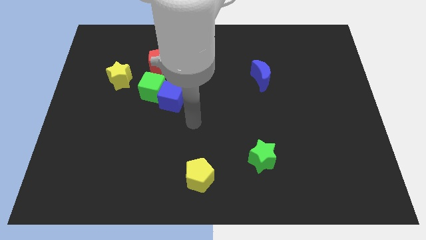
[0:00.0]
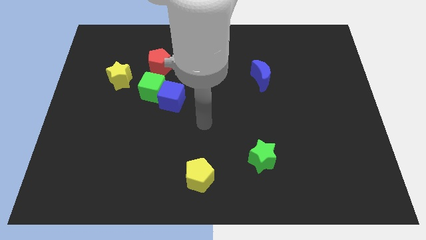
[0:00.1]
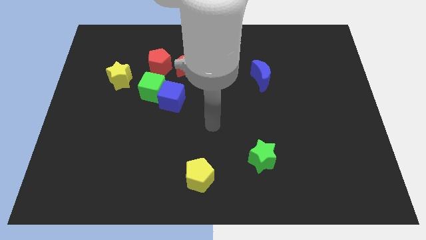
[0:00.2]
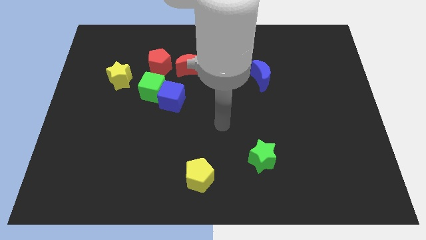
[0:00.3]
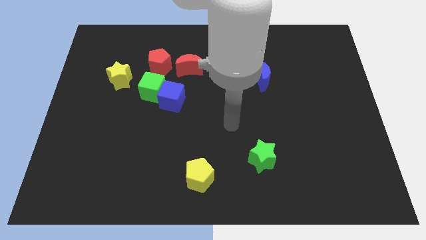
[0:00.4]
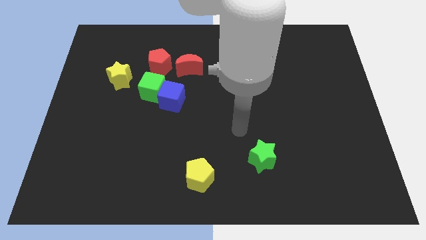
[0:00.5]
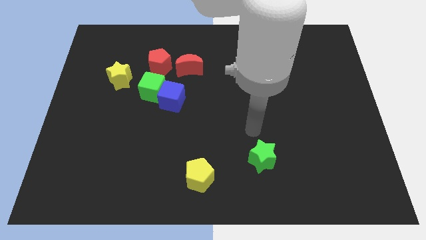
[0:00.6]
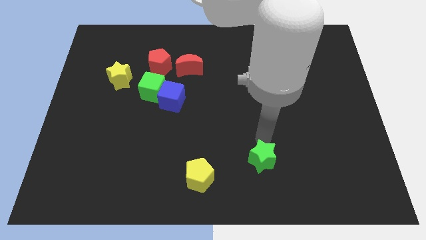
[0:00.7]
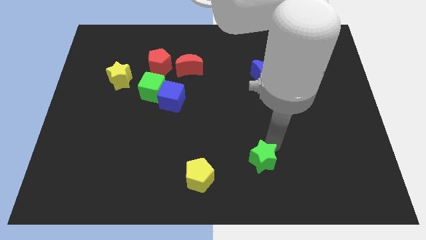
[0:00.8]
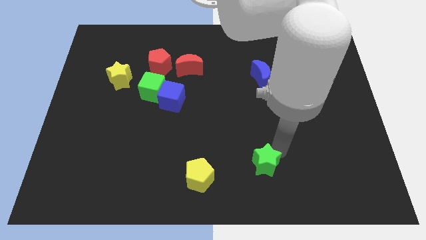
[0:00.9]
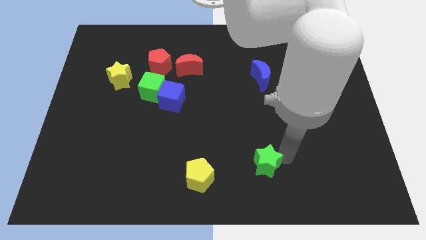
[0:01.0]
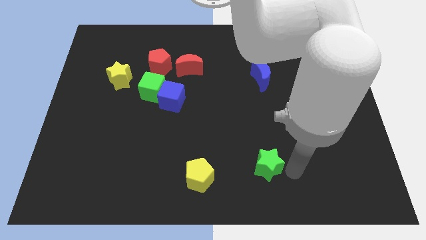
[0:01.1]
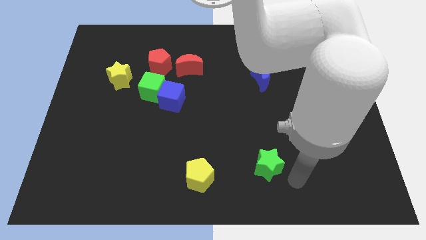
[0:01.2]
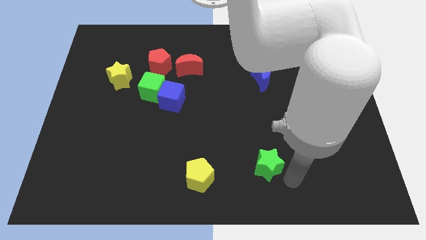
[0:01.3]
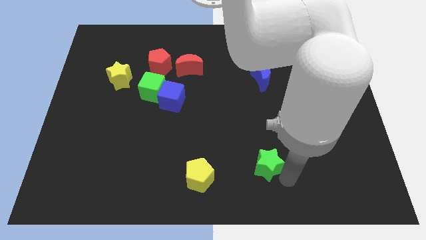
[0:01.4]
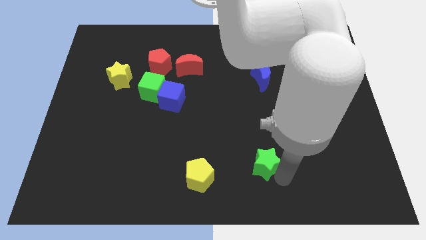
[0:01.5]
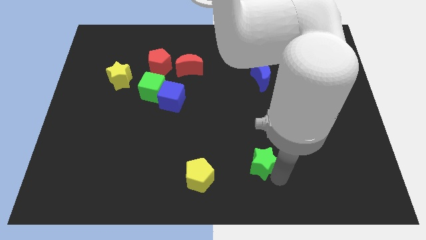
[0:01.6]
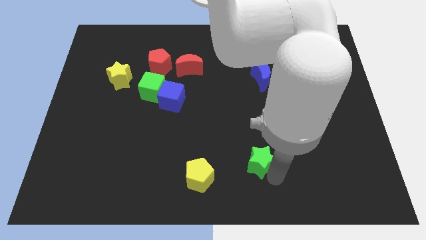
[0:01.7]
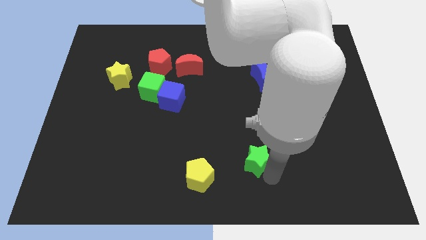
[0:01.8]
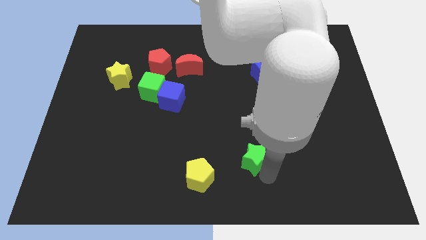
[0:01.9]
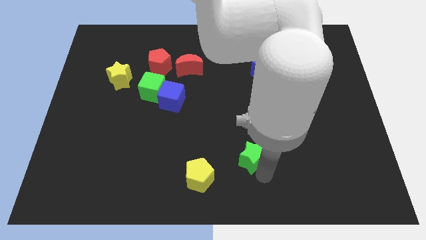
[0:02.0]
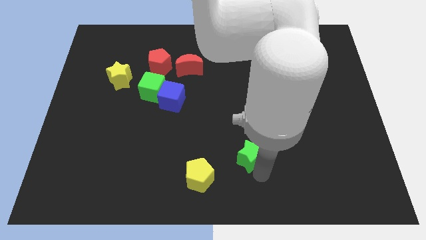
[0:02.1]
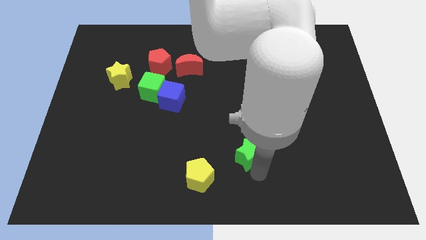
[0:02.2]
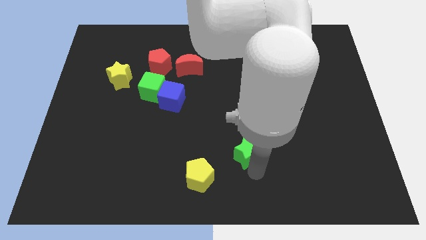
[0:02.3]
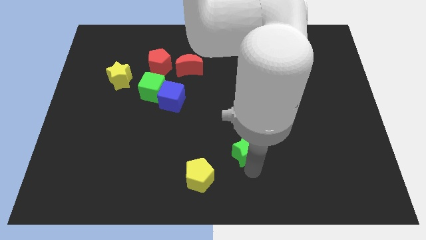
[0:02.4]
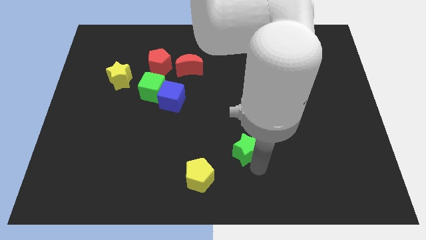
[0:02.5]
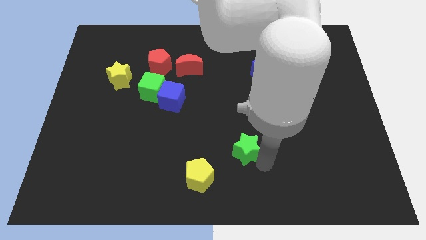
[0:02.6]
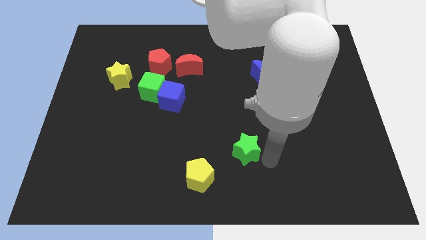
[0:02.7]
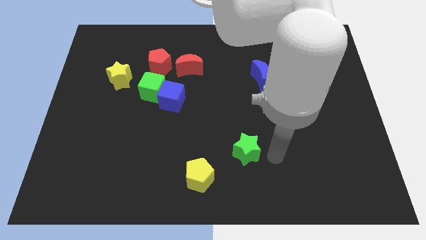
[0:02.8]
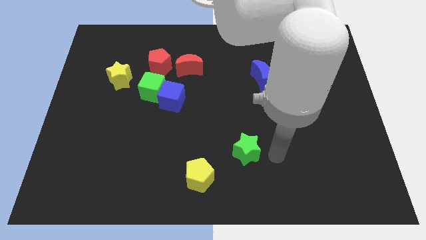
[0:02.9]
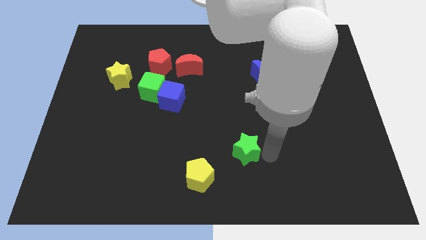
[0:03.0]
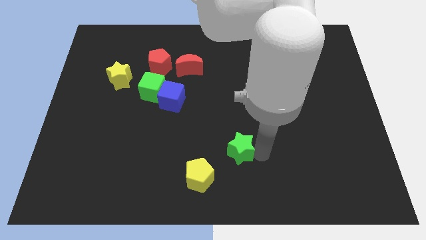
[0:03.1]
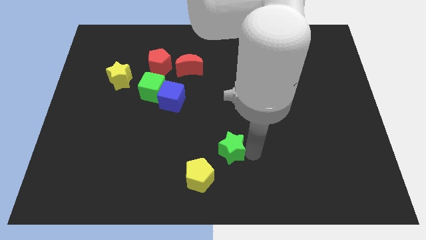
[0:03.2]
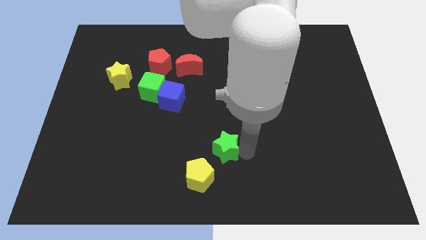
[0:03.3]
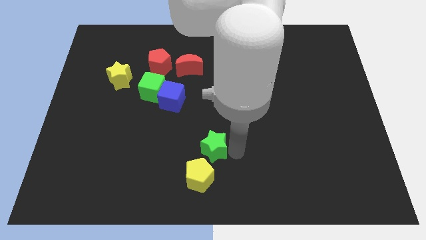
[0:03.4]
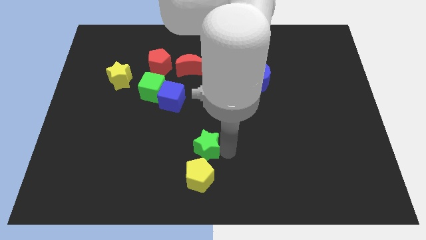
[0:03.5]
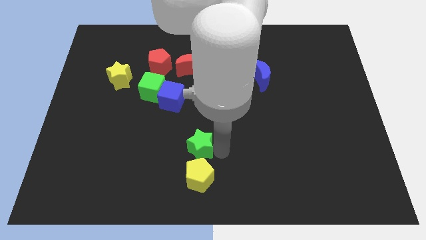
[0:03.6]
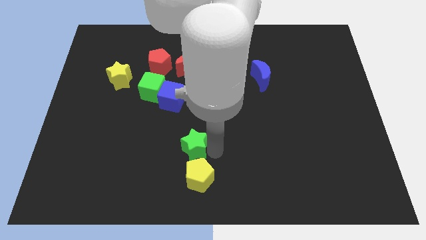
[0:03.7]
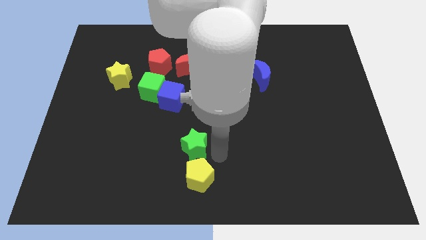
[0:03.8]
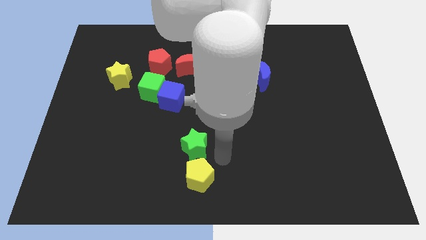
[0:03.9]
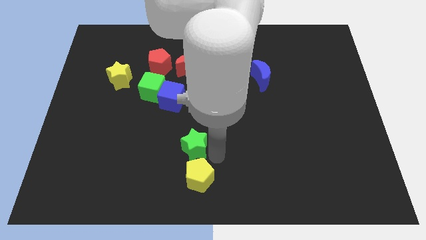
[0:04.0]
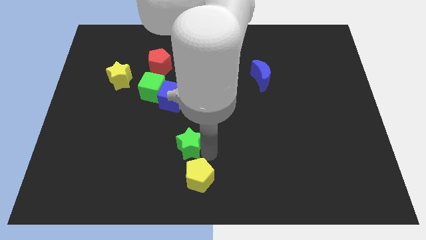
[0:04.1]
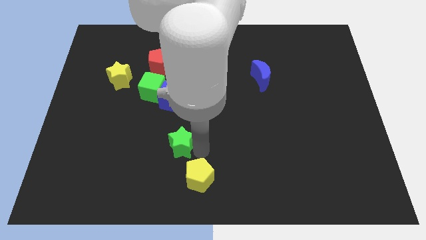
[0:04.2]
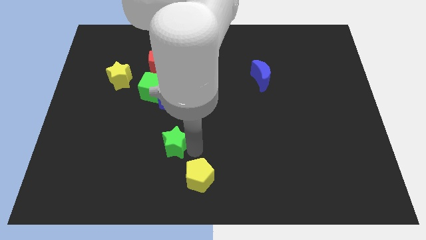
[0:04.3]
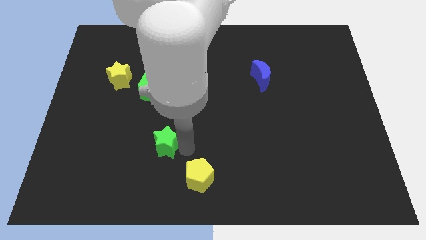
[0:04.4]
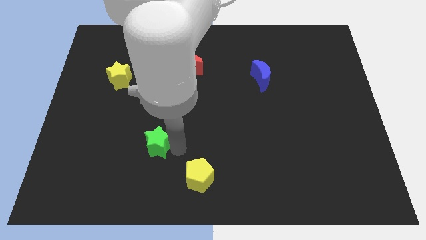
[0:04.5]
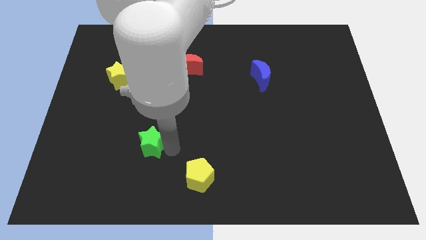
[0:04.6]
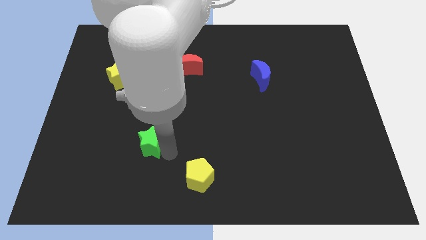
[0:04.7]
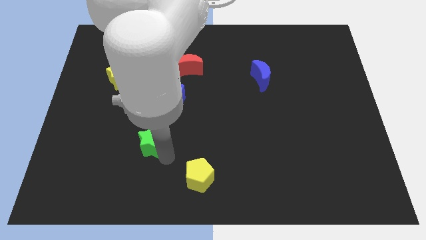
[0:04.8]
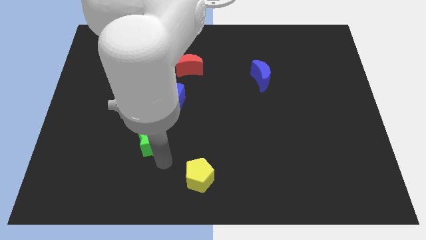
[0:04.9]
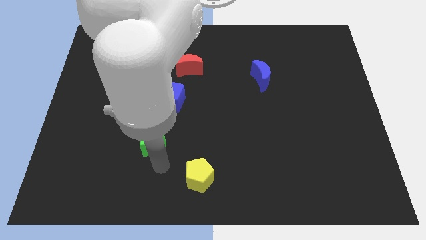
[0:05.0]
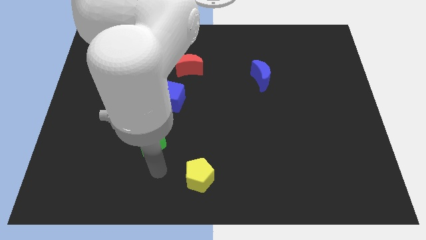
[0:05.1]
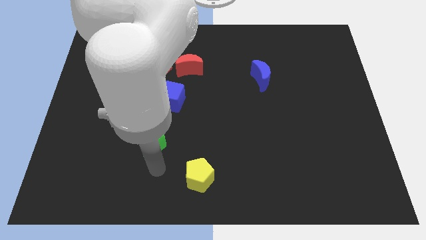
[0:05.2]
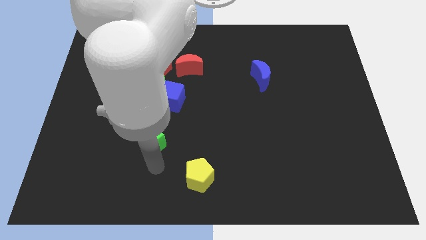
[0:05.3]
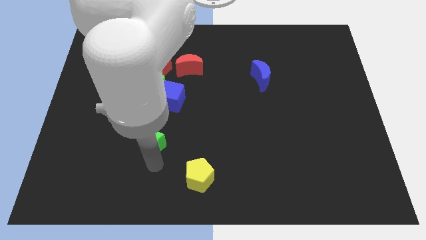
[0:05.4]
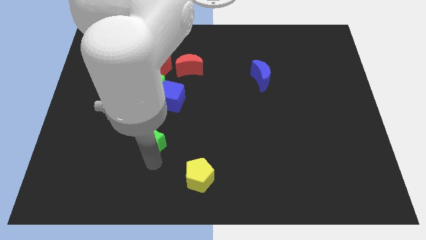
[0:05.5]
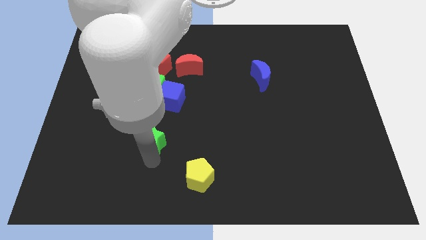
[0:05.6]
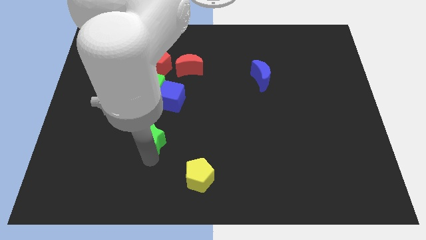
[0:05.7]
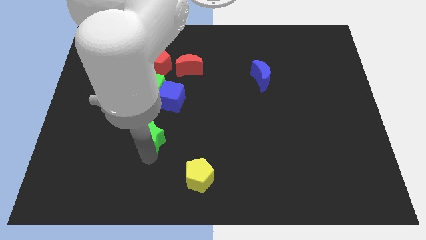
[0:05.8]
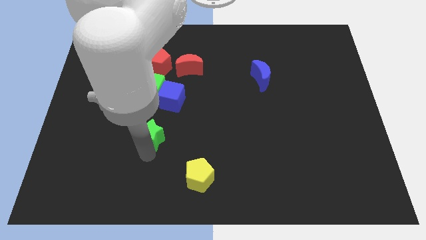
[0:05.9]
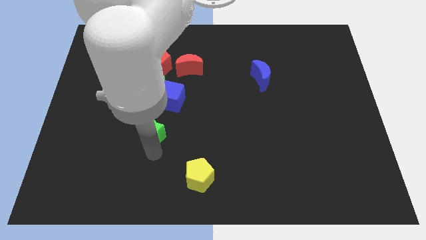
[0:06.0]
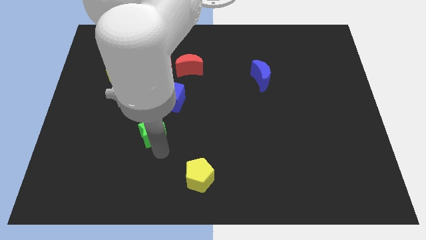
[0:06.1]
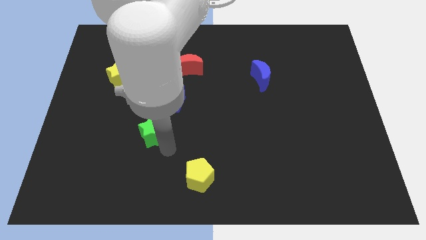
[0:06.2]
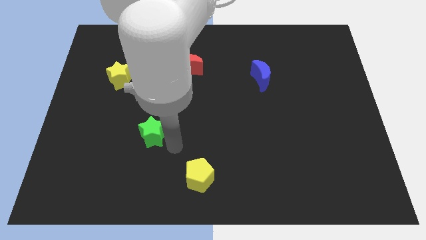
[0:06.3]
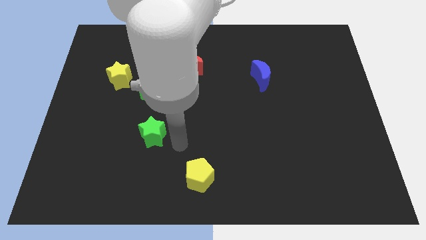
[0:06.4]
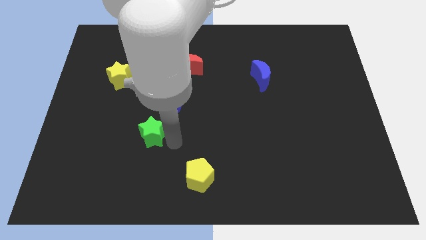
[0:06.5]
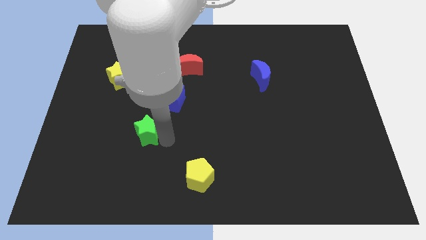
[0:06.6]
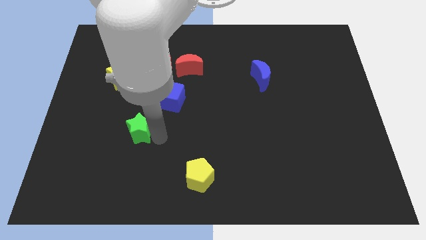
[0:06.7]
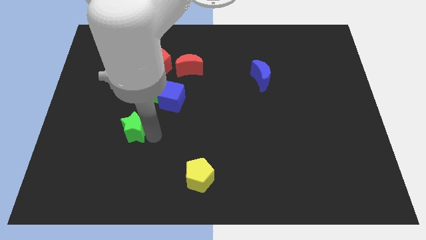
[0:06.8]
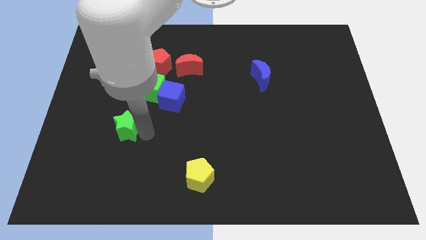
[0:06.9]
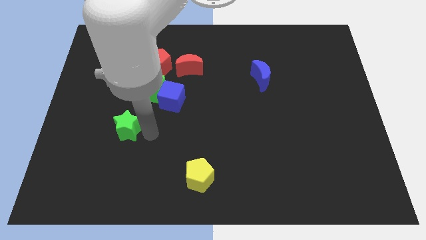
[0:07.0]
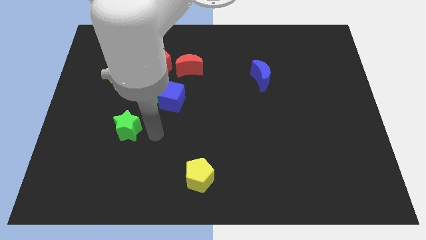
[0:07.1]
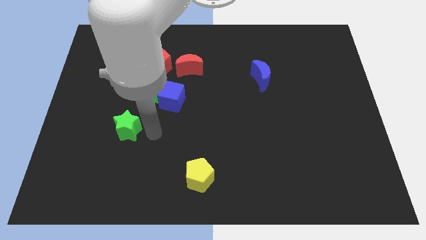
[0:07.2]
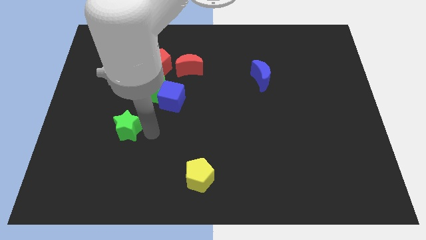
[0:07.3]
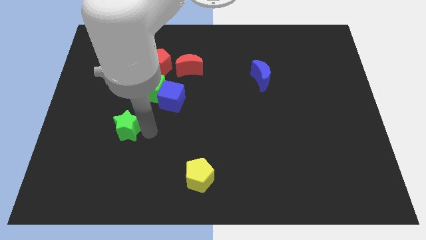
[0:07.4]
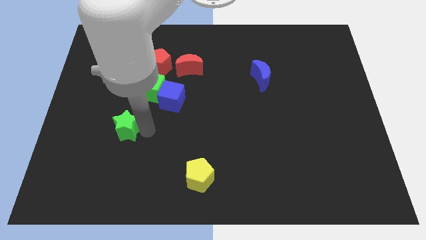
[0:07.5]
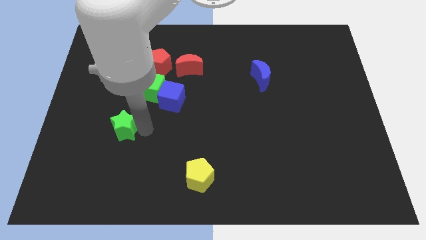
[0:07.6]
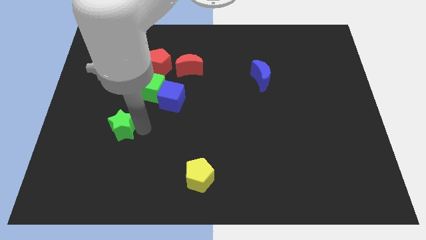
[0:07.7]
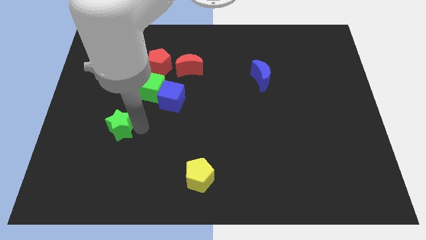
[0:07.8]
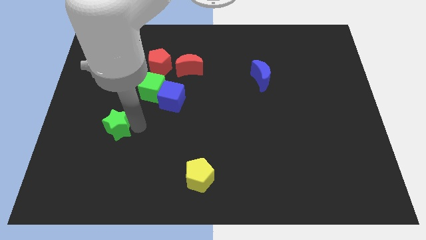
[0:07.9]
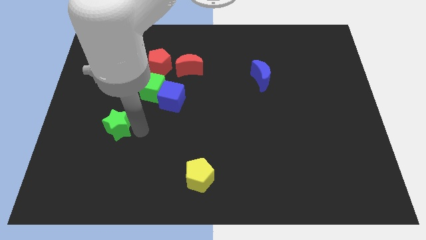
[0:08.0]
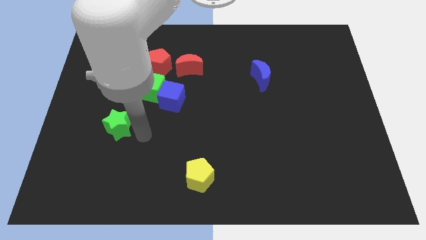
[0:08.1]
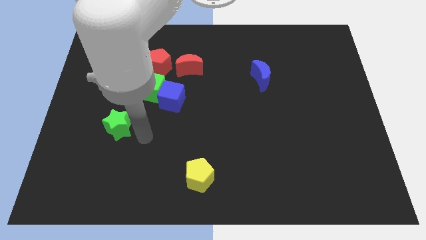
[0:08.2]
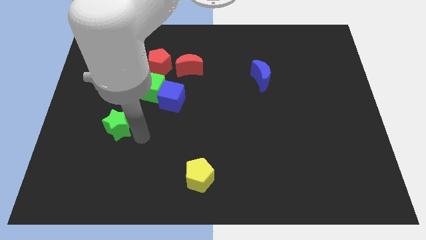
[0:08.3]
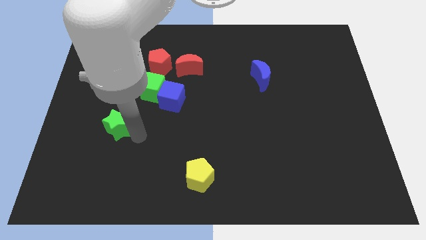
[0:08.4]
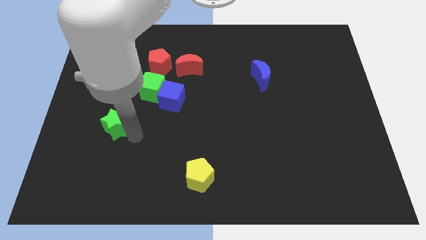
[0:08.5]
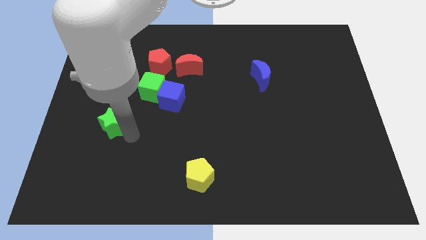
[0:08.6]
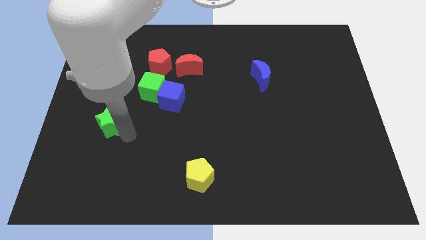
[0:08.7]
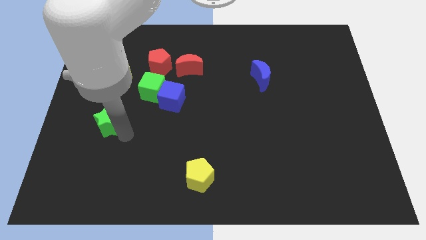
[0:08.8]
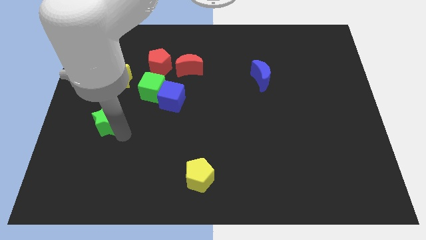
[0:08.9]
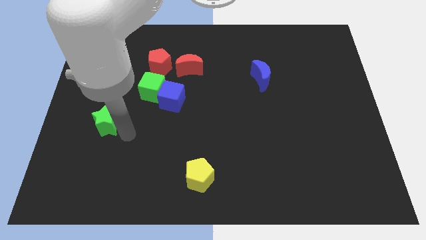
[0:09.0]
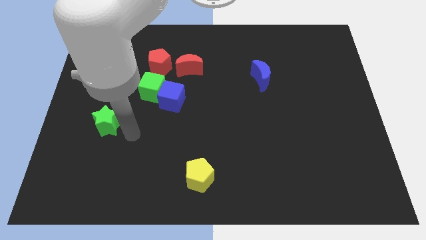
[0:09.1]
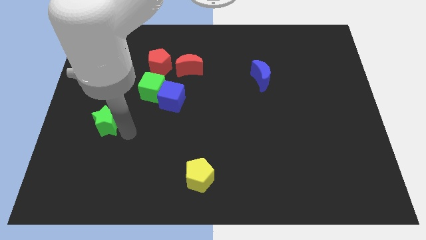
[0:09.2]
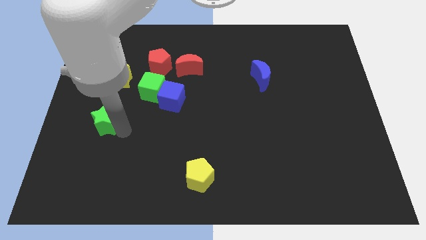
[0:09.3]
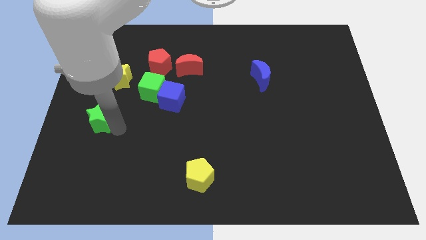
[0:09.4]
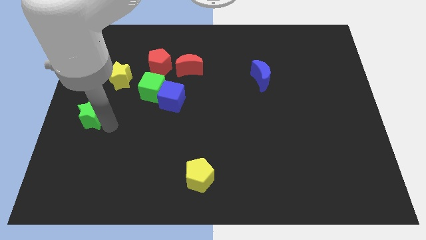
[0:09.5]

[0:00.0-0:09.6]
slide the green star to the left side of the board
